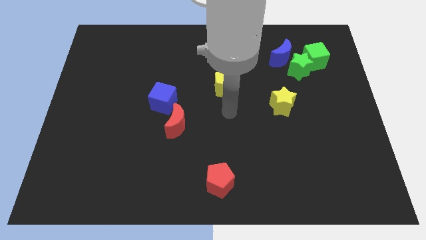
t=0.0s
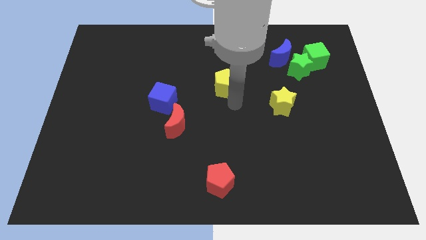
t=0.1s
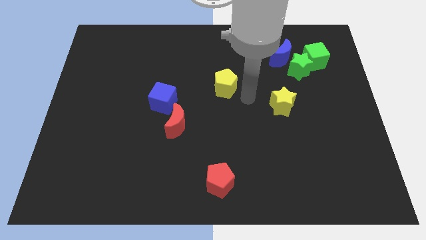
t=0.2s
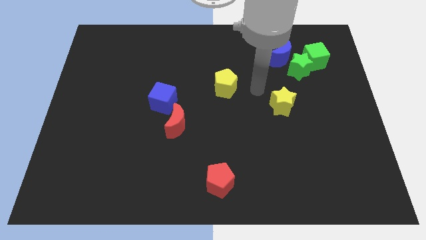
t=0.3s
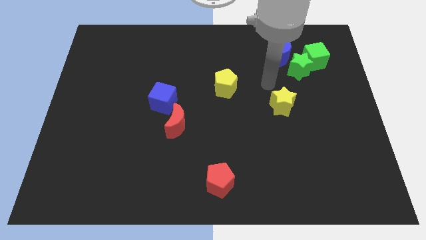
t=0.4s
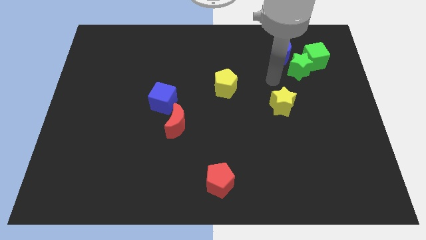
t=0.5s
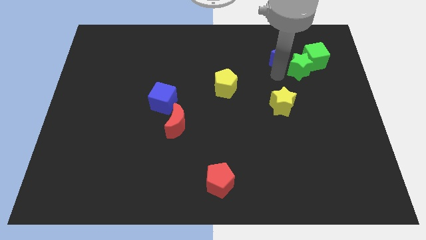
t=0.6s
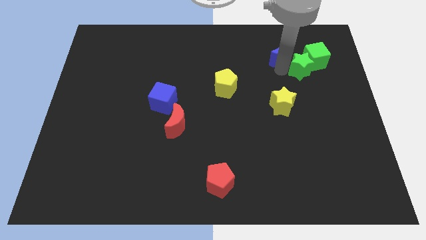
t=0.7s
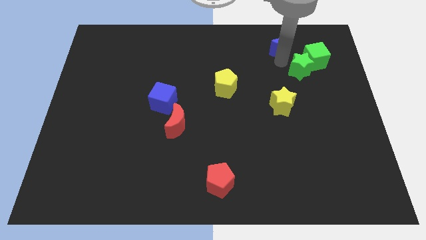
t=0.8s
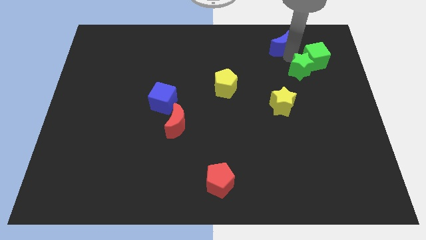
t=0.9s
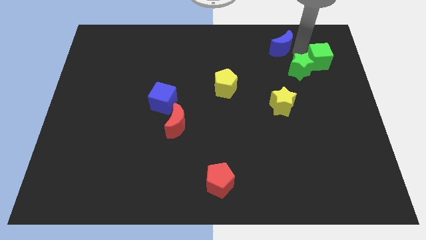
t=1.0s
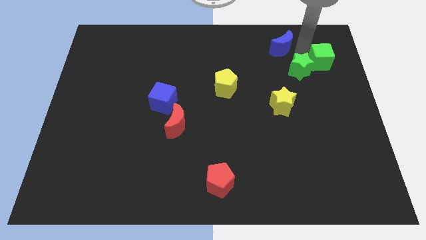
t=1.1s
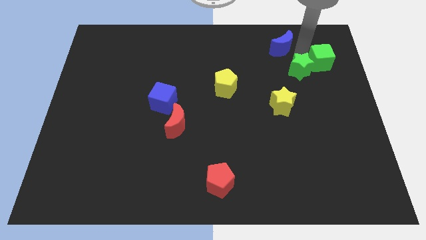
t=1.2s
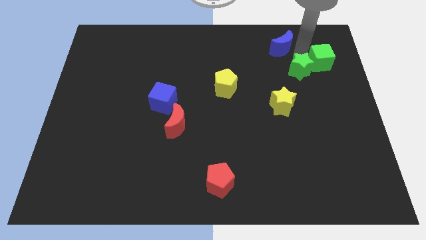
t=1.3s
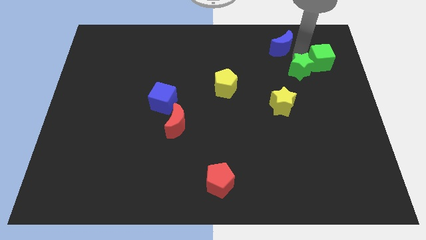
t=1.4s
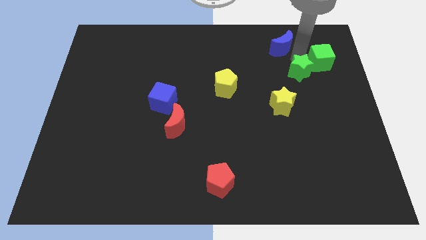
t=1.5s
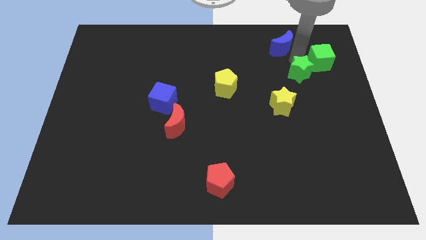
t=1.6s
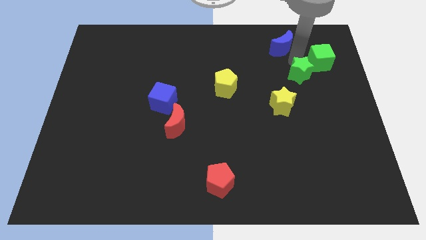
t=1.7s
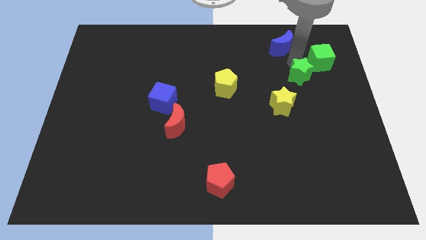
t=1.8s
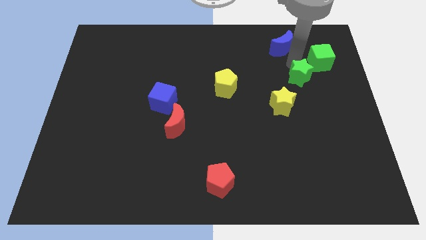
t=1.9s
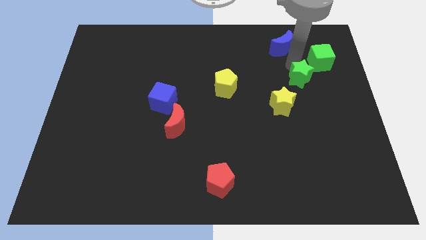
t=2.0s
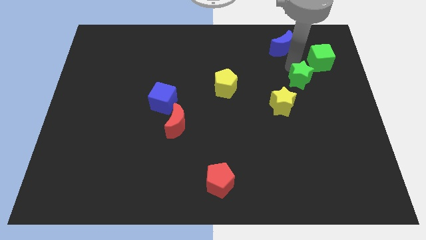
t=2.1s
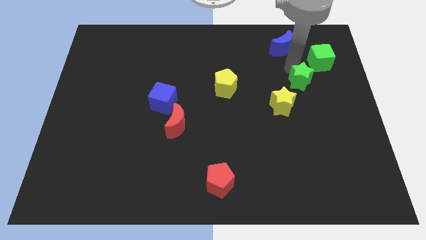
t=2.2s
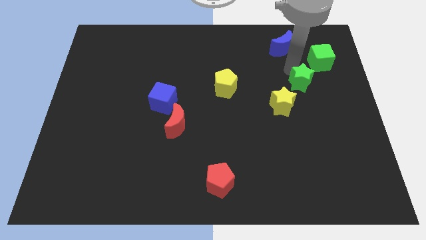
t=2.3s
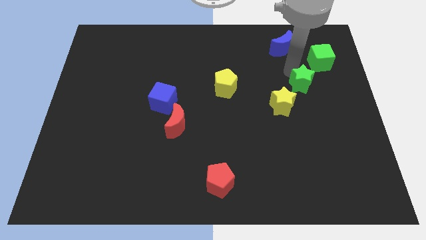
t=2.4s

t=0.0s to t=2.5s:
separate the green star from the blue moon and green cube

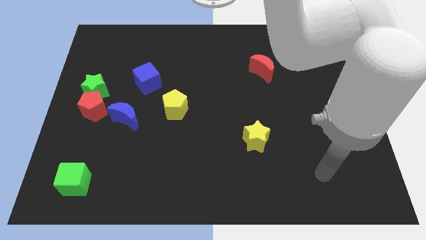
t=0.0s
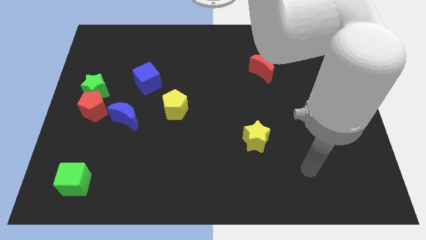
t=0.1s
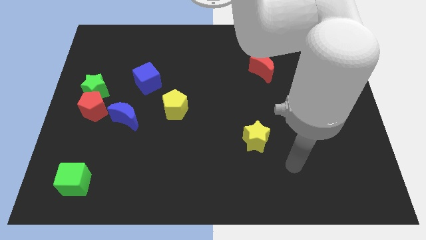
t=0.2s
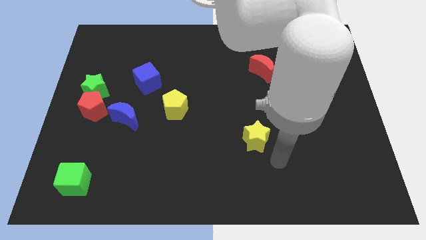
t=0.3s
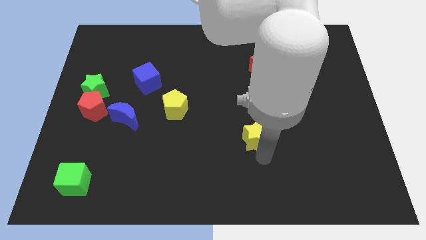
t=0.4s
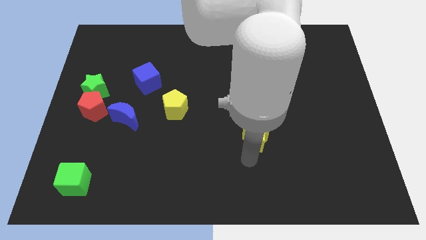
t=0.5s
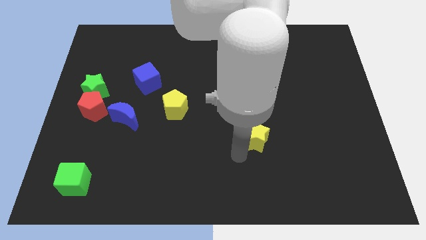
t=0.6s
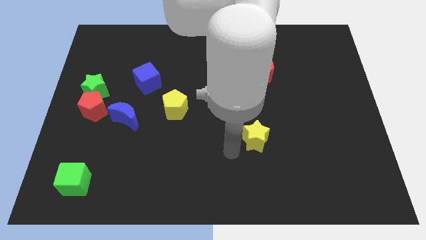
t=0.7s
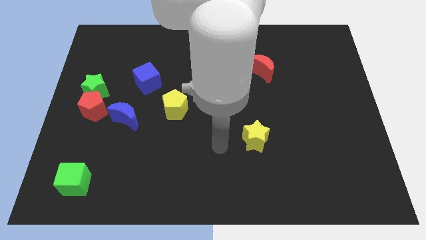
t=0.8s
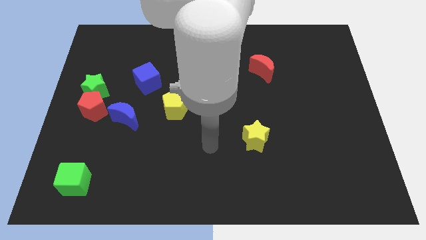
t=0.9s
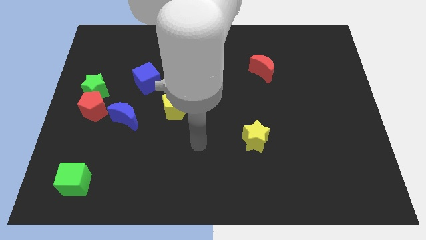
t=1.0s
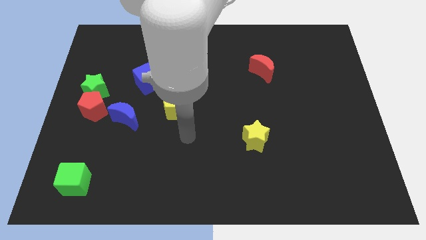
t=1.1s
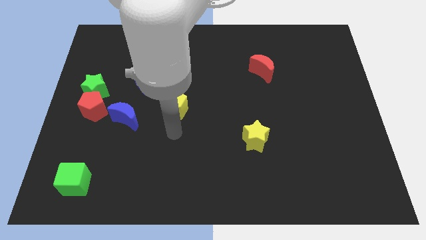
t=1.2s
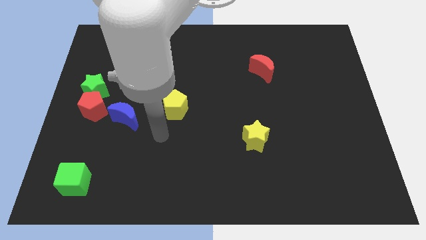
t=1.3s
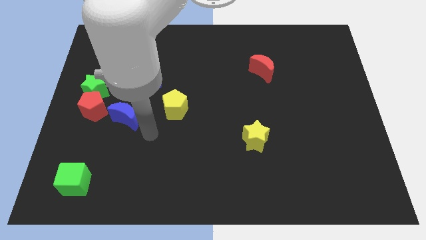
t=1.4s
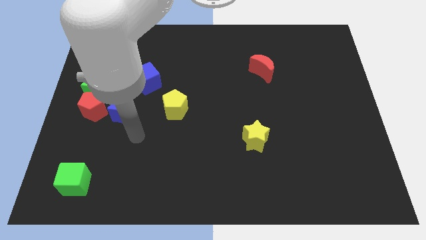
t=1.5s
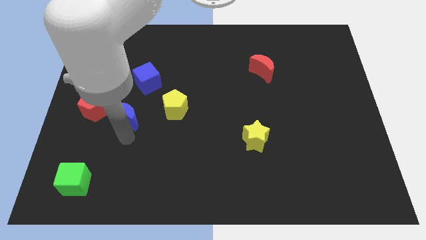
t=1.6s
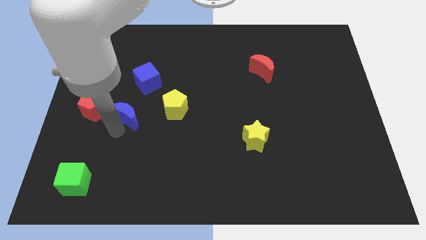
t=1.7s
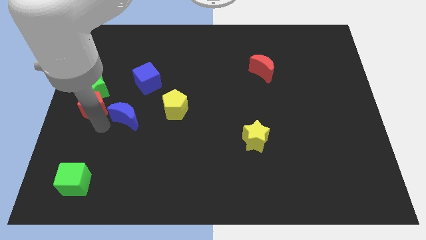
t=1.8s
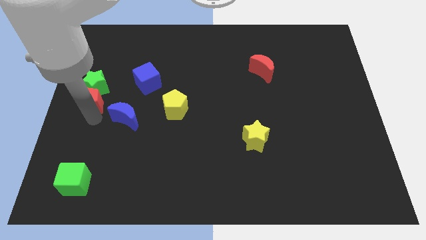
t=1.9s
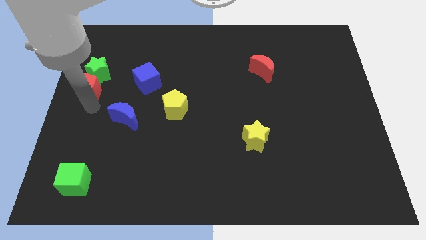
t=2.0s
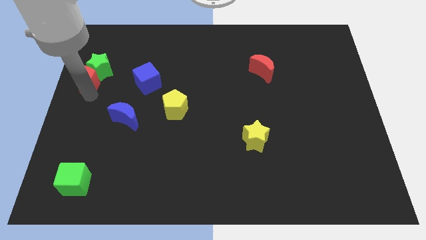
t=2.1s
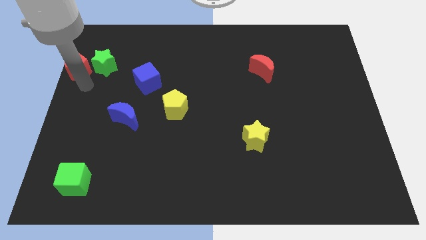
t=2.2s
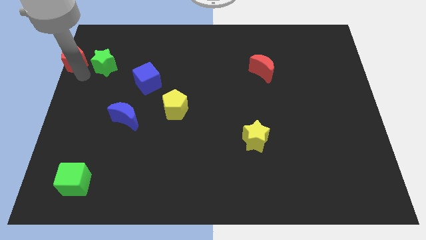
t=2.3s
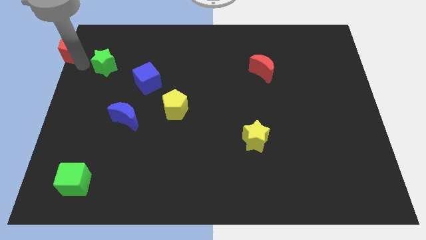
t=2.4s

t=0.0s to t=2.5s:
separate the green star from the red pentagon

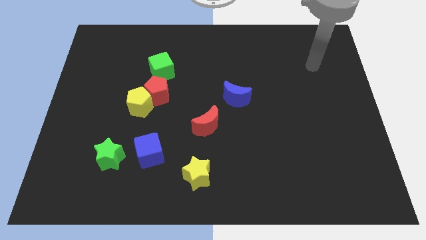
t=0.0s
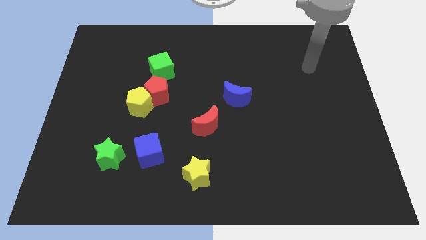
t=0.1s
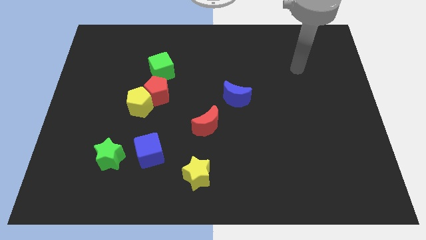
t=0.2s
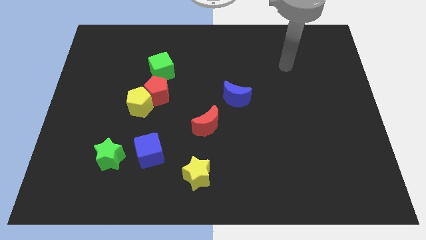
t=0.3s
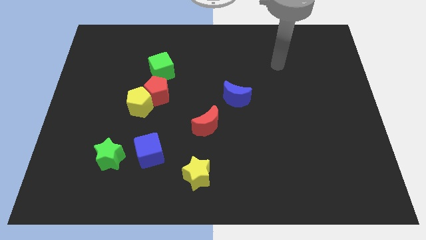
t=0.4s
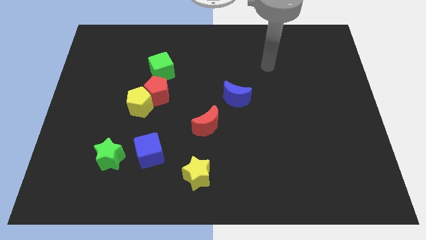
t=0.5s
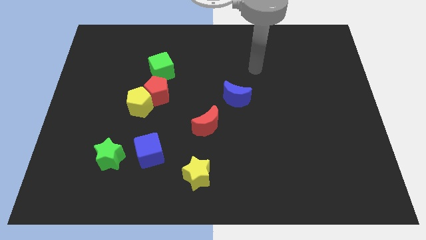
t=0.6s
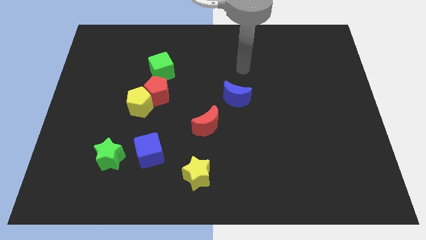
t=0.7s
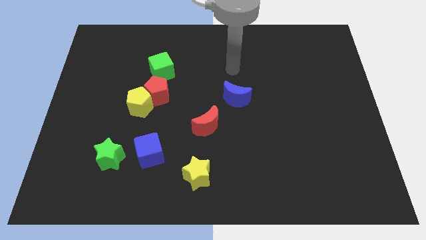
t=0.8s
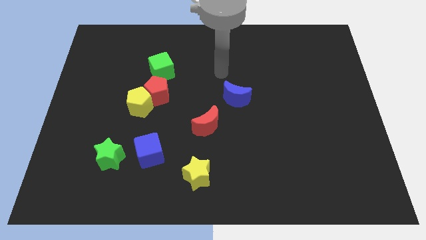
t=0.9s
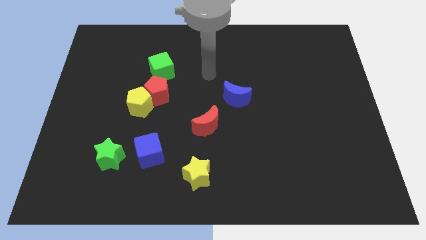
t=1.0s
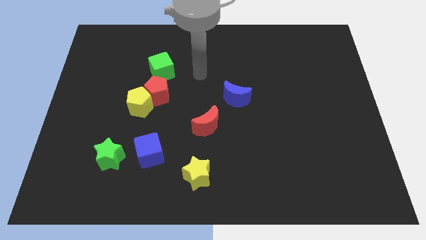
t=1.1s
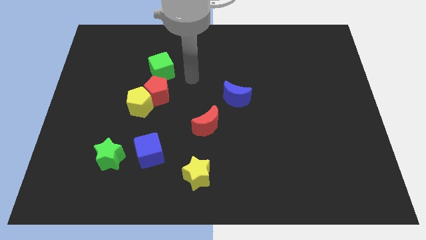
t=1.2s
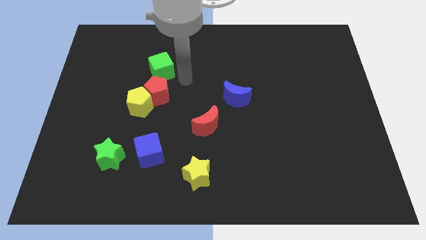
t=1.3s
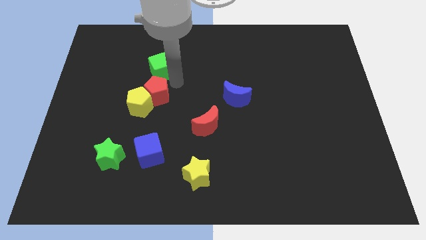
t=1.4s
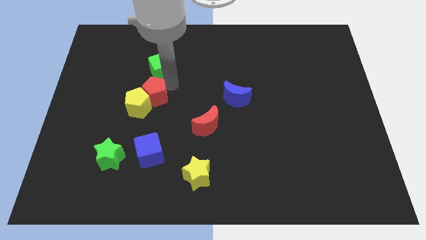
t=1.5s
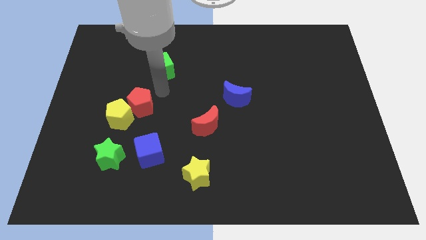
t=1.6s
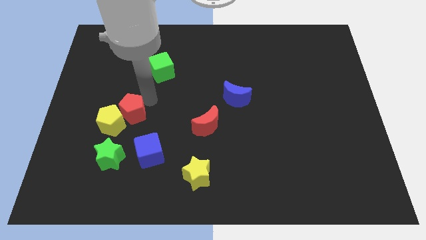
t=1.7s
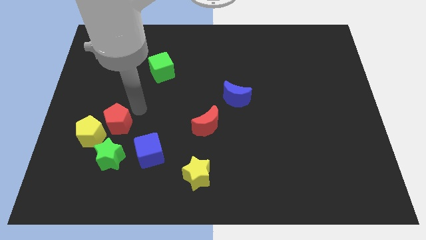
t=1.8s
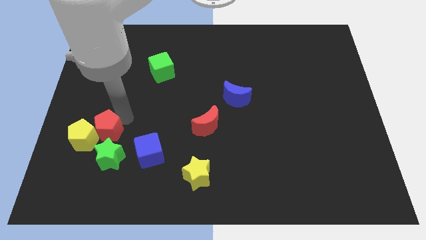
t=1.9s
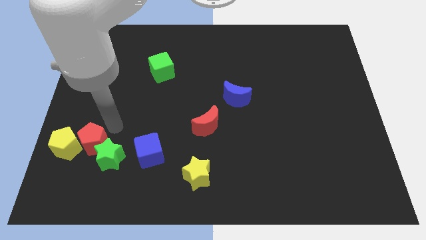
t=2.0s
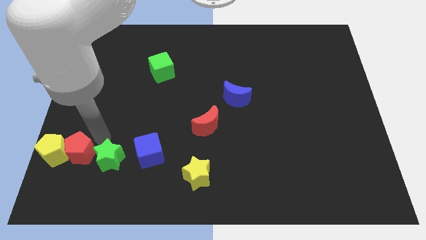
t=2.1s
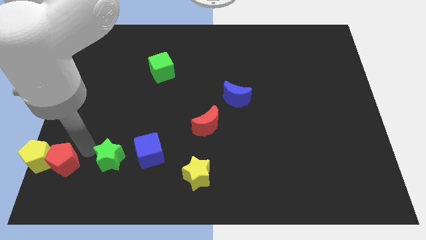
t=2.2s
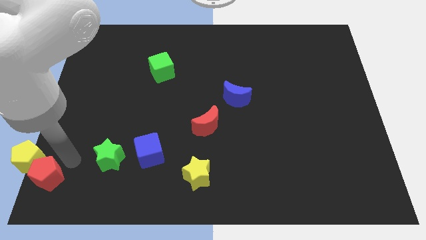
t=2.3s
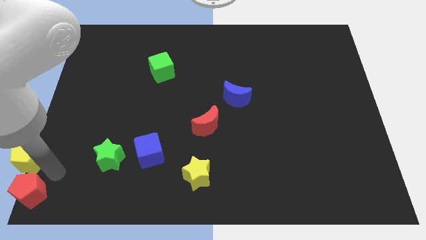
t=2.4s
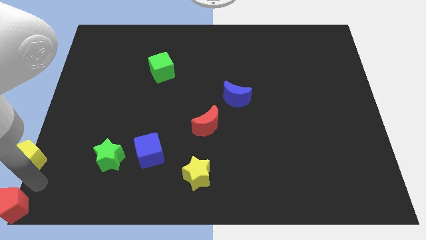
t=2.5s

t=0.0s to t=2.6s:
move the yellow pentagon away from the red pentagon

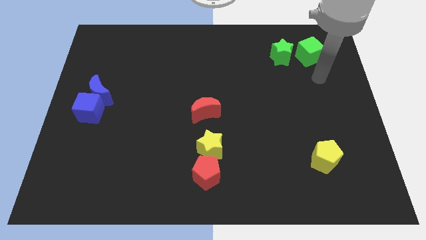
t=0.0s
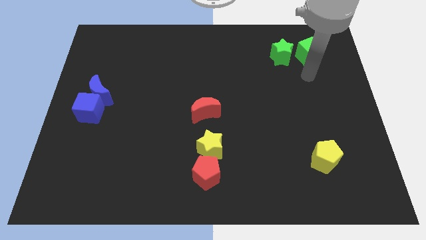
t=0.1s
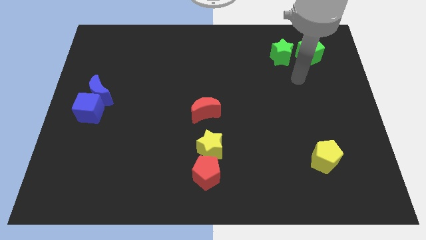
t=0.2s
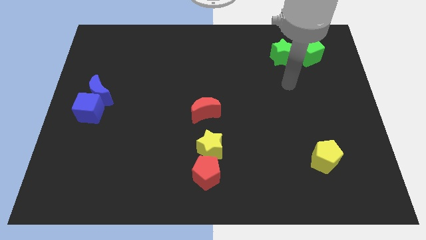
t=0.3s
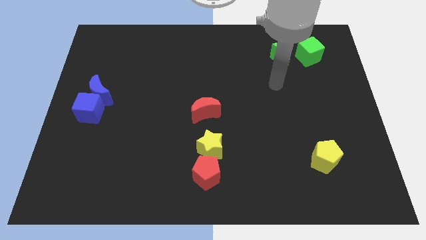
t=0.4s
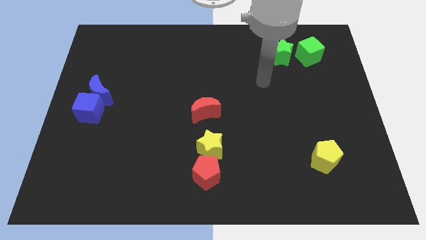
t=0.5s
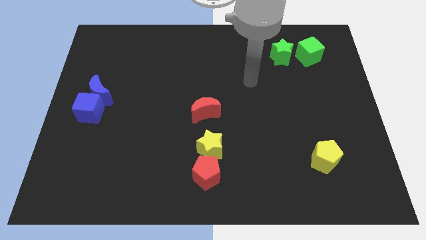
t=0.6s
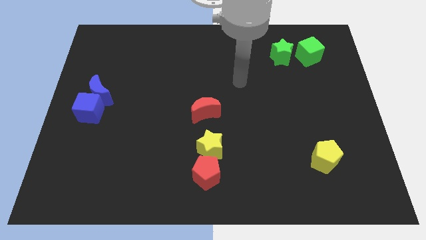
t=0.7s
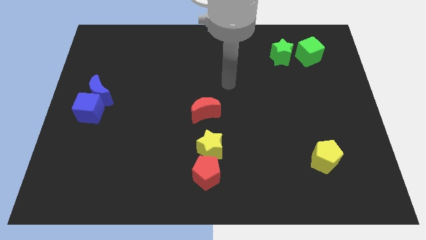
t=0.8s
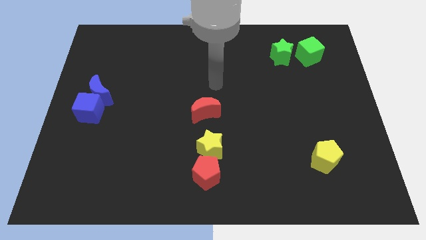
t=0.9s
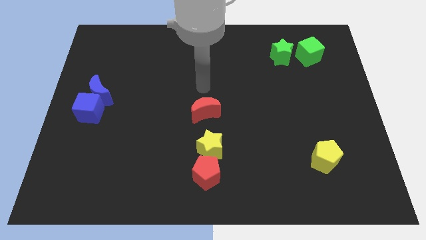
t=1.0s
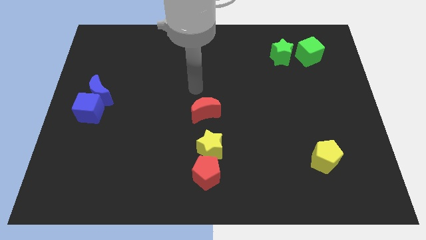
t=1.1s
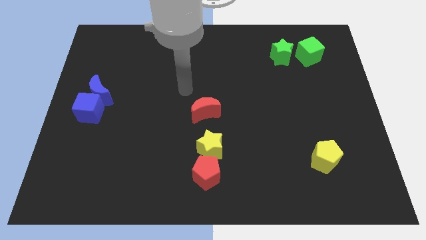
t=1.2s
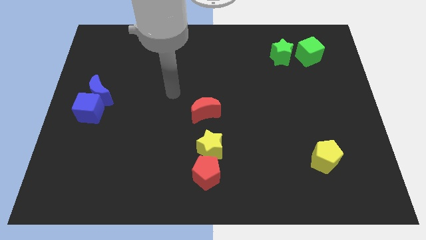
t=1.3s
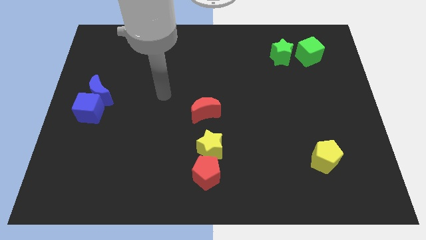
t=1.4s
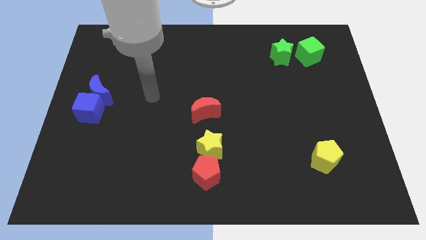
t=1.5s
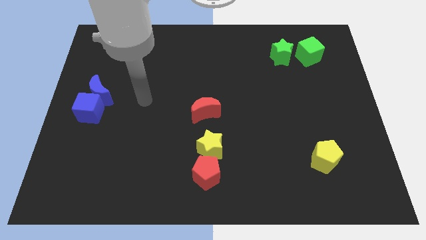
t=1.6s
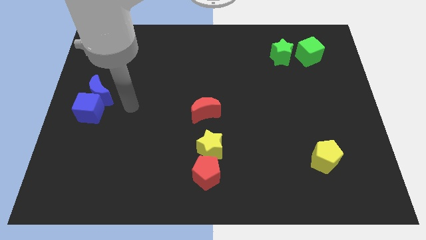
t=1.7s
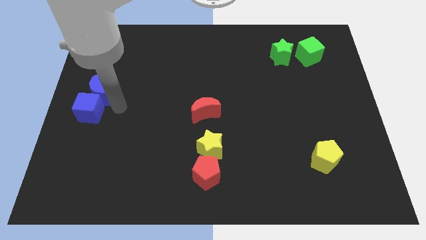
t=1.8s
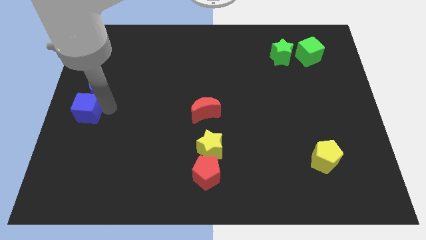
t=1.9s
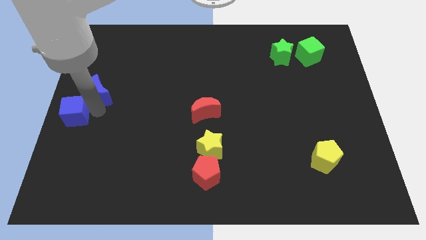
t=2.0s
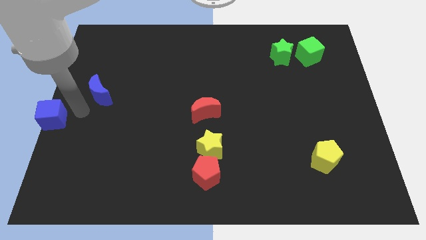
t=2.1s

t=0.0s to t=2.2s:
separate the blue moon from the blue cube
